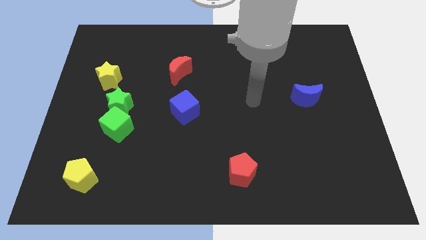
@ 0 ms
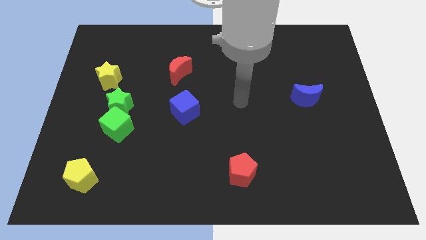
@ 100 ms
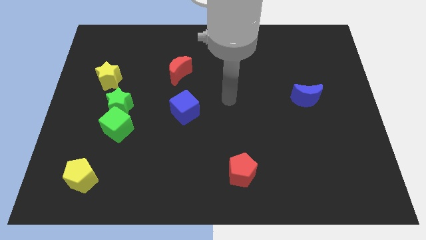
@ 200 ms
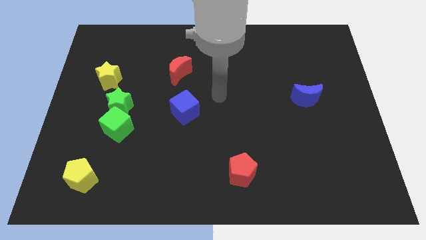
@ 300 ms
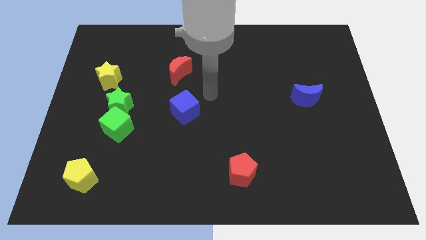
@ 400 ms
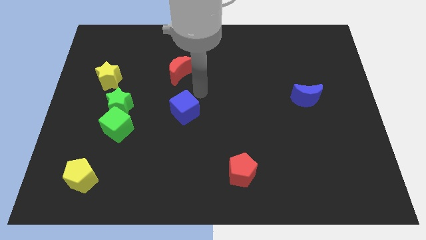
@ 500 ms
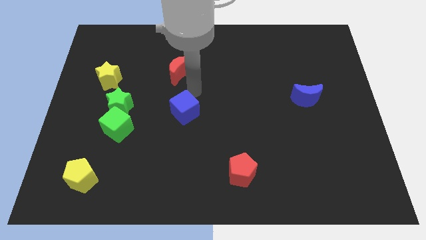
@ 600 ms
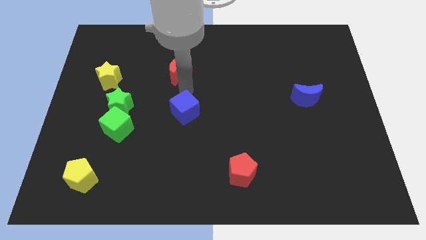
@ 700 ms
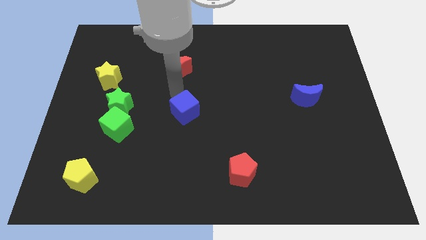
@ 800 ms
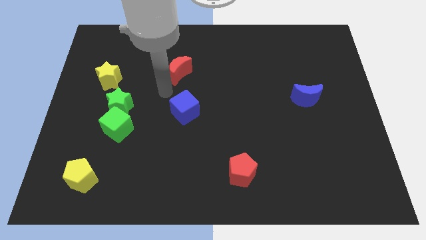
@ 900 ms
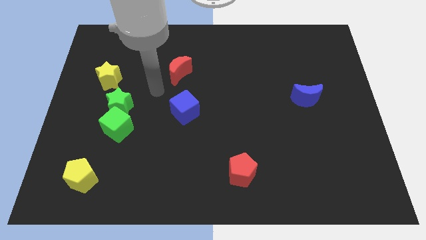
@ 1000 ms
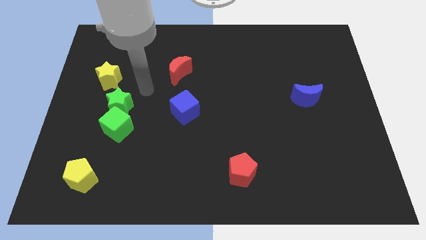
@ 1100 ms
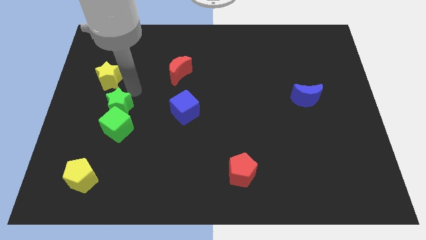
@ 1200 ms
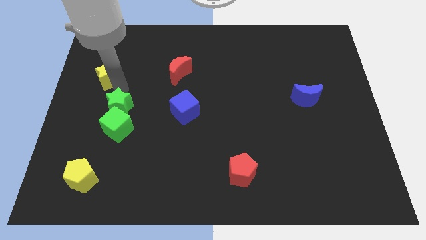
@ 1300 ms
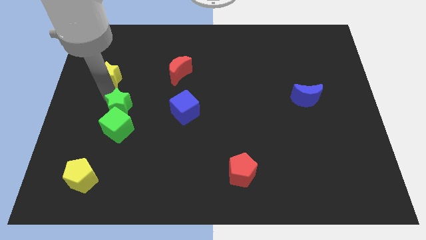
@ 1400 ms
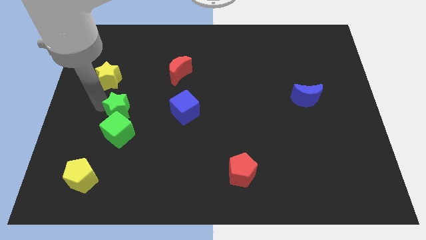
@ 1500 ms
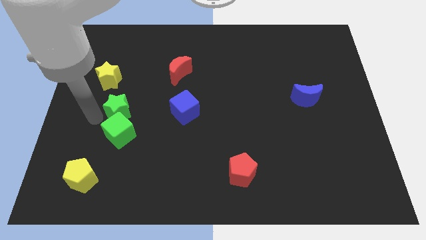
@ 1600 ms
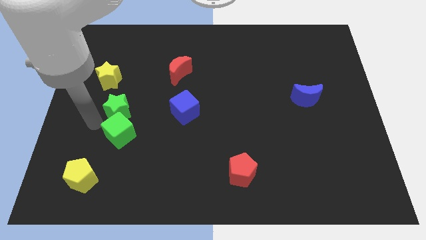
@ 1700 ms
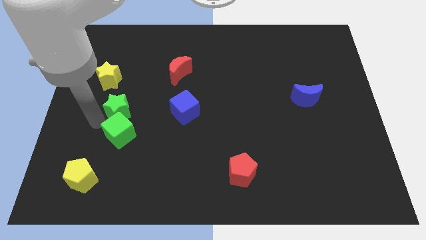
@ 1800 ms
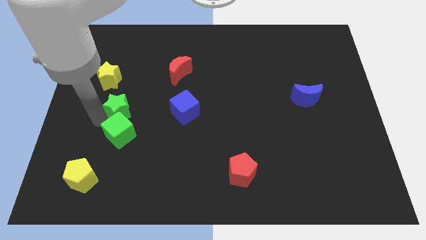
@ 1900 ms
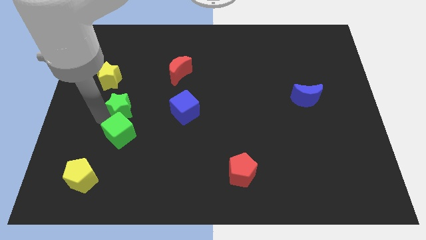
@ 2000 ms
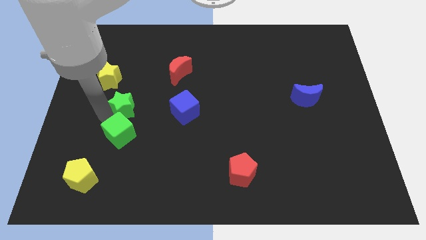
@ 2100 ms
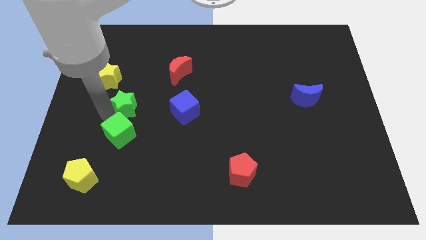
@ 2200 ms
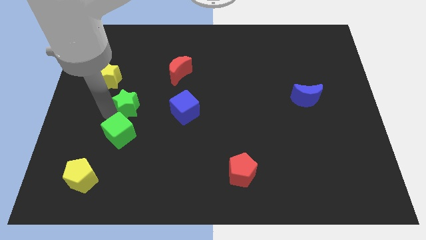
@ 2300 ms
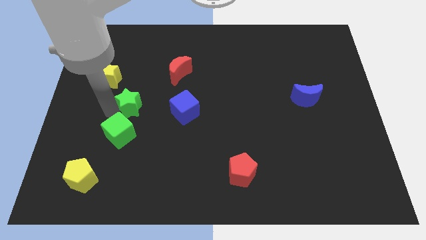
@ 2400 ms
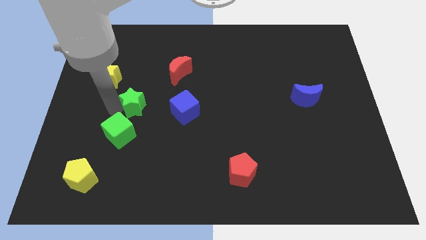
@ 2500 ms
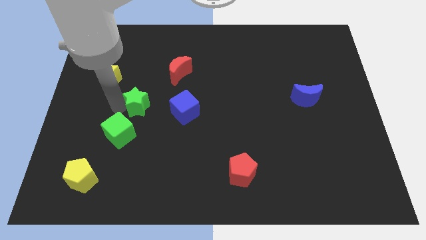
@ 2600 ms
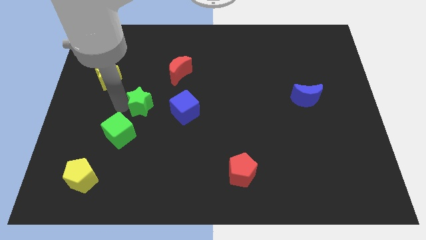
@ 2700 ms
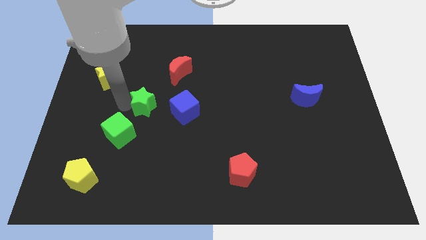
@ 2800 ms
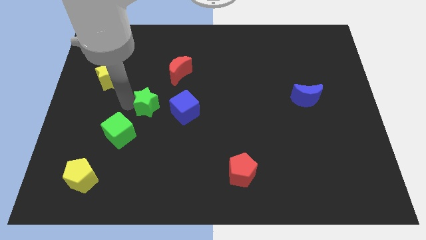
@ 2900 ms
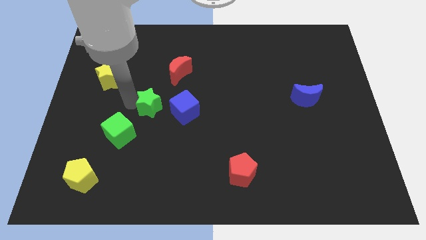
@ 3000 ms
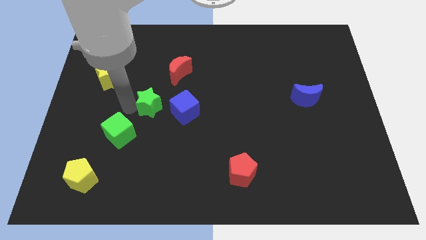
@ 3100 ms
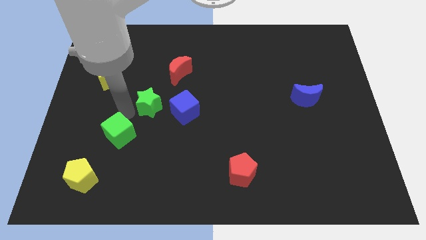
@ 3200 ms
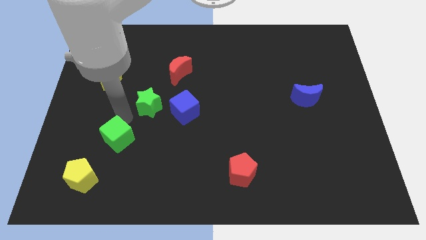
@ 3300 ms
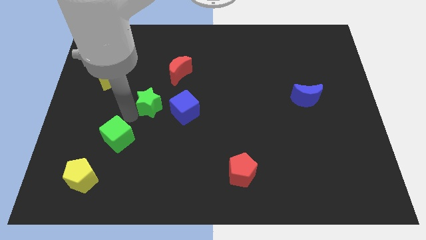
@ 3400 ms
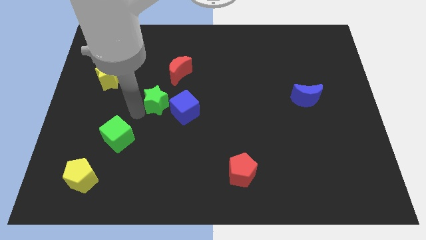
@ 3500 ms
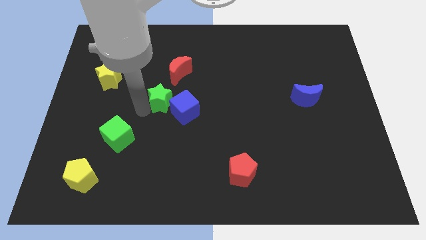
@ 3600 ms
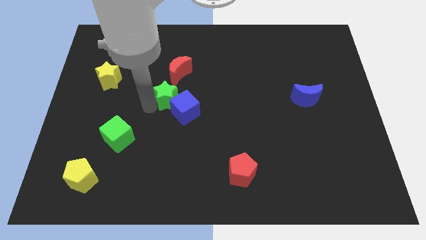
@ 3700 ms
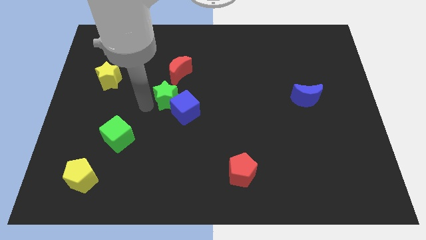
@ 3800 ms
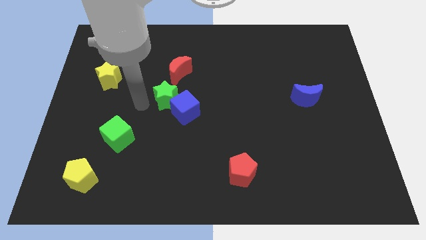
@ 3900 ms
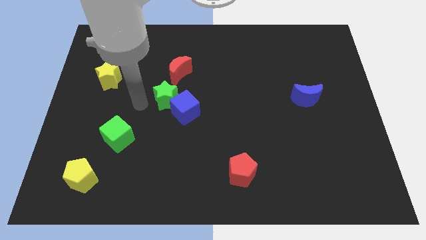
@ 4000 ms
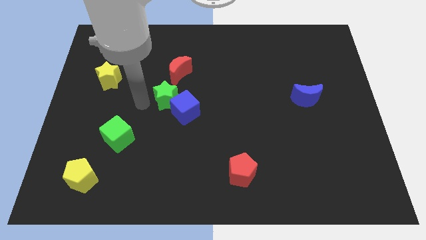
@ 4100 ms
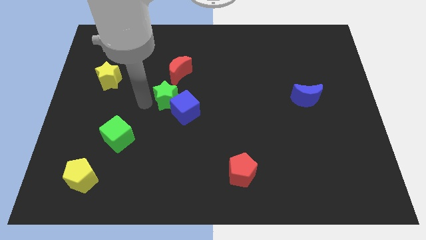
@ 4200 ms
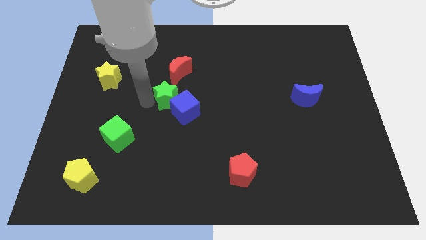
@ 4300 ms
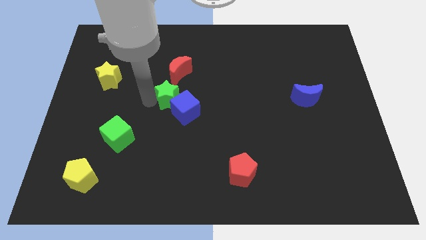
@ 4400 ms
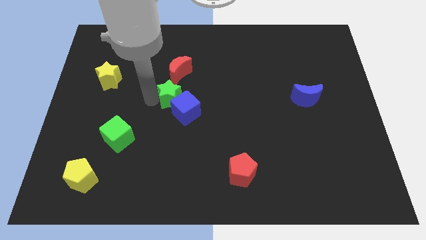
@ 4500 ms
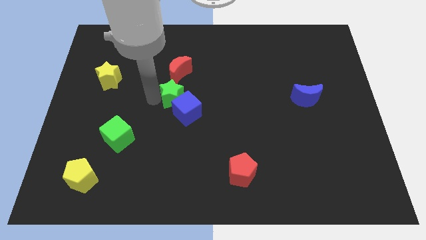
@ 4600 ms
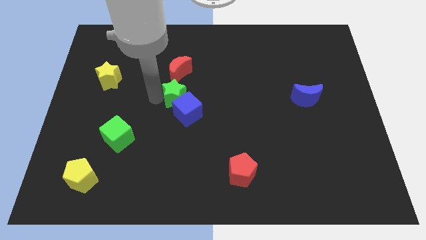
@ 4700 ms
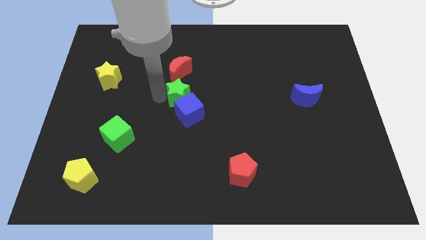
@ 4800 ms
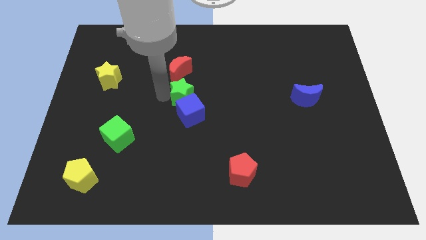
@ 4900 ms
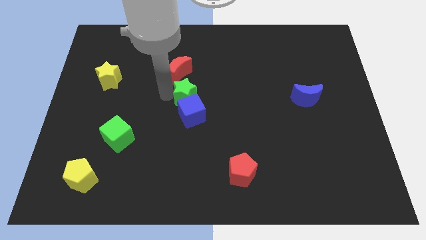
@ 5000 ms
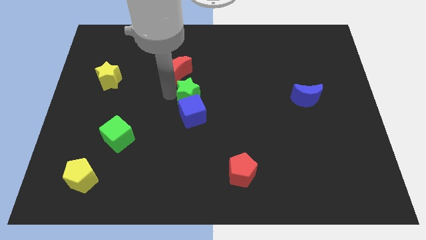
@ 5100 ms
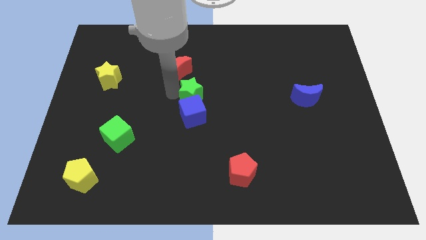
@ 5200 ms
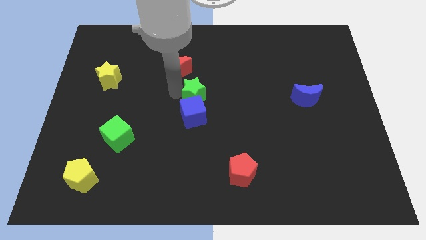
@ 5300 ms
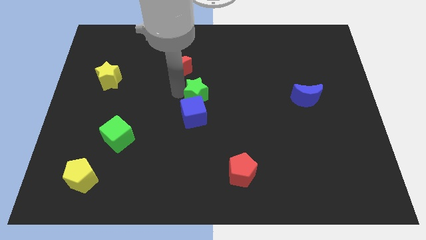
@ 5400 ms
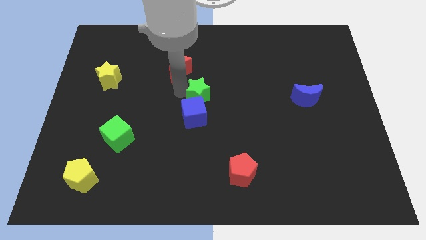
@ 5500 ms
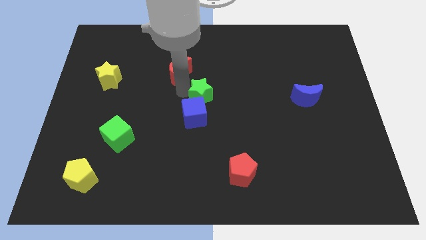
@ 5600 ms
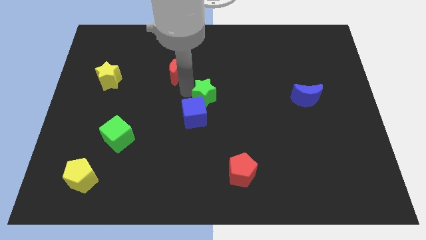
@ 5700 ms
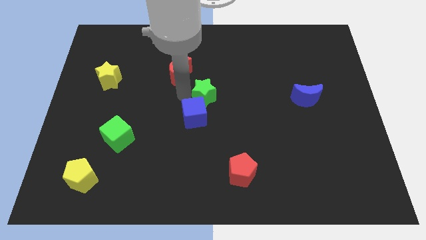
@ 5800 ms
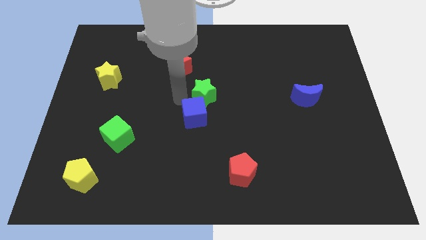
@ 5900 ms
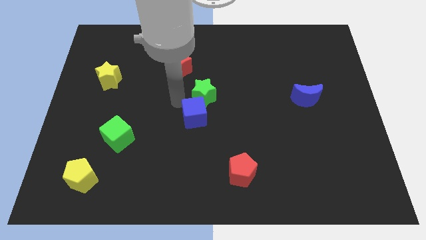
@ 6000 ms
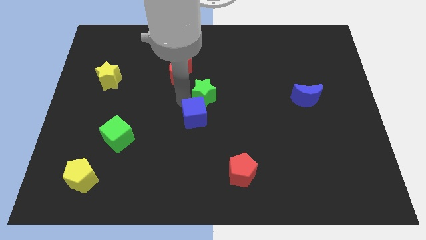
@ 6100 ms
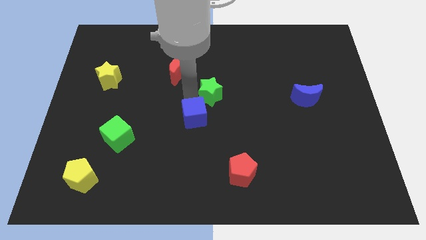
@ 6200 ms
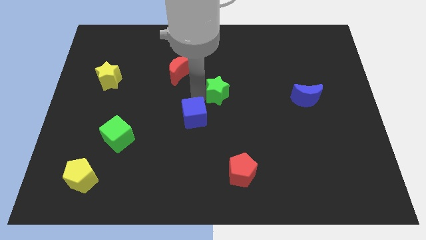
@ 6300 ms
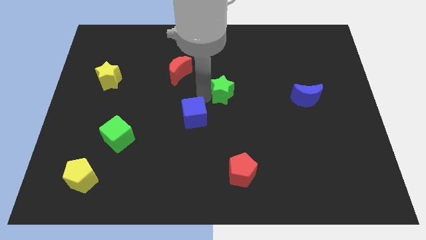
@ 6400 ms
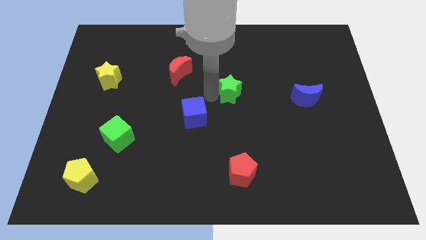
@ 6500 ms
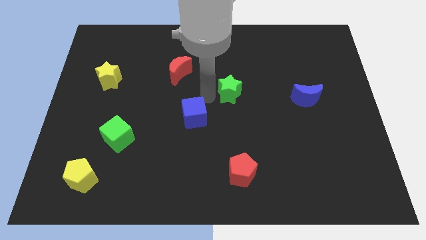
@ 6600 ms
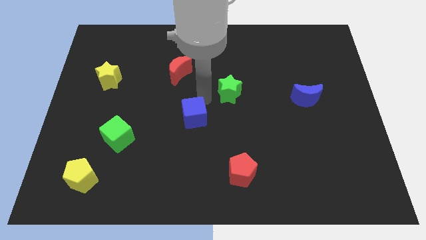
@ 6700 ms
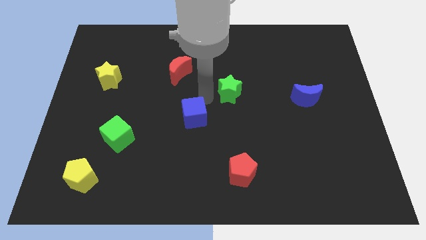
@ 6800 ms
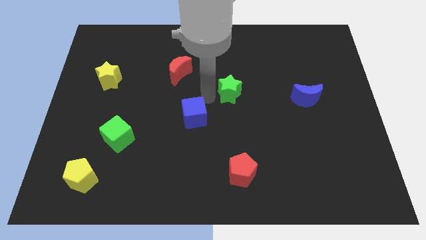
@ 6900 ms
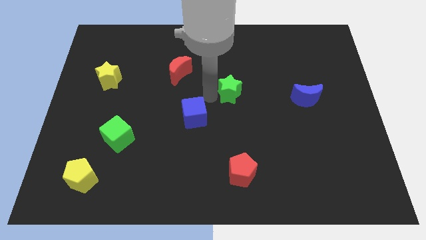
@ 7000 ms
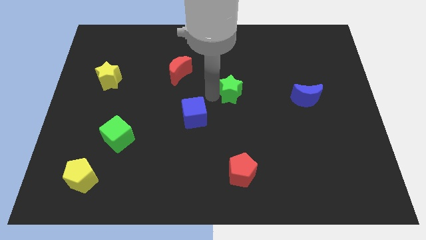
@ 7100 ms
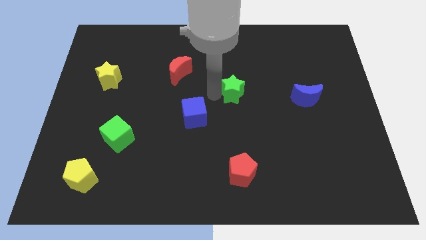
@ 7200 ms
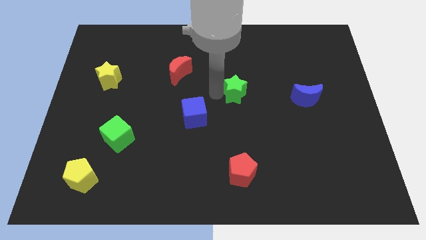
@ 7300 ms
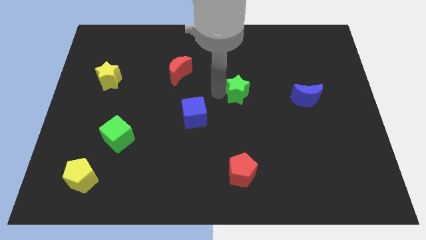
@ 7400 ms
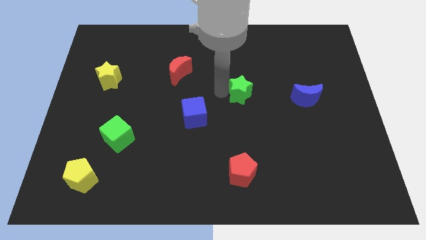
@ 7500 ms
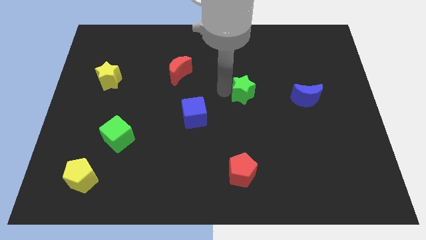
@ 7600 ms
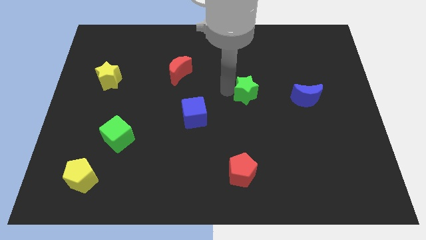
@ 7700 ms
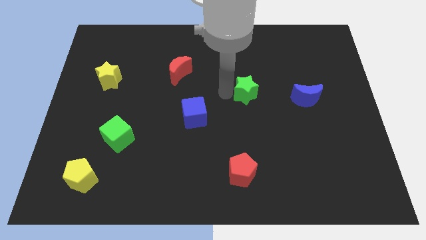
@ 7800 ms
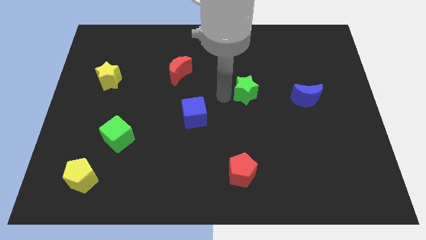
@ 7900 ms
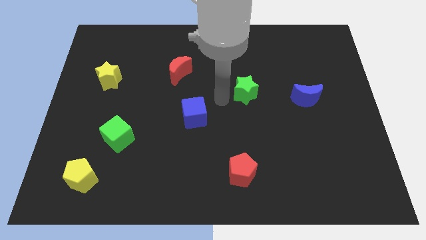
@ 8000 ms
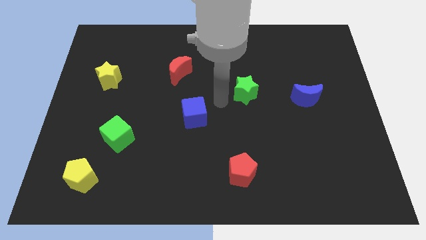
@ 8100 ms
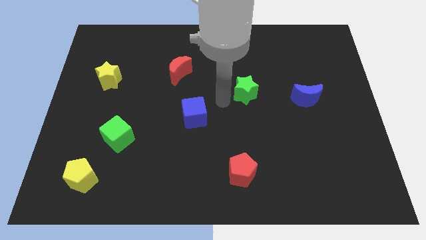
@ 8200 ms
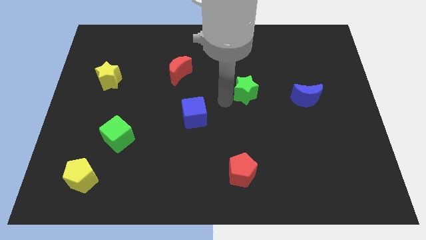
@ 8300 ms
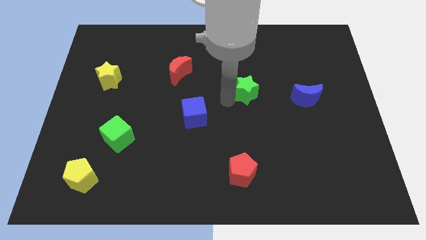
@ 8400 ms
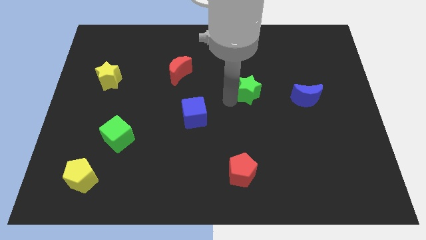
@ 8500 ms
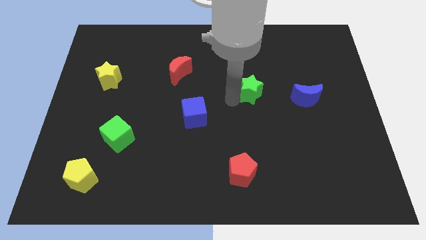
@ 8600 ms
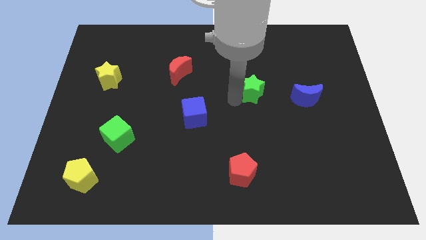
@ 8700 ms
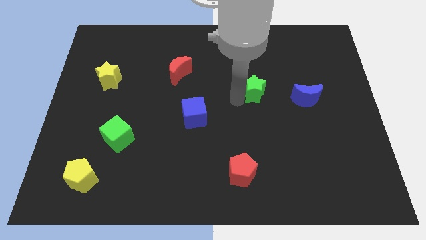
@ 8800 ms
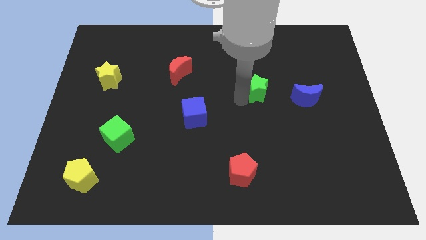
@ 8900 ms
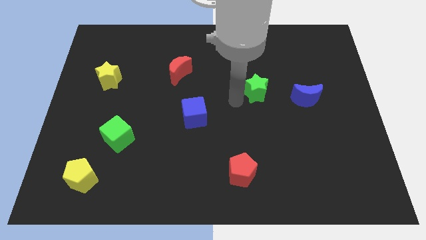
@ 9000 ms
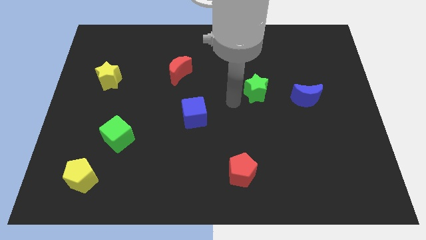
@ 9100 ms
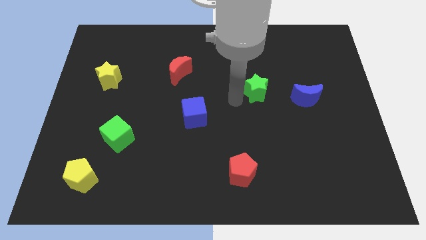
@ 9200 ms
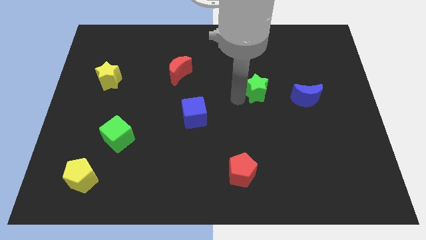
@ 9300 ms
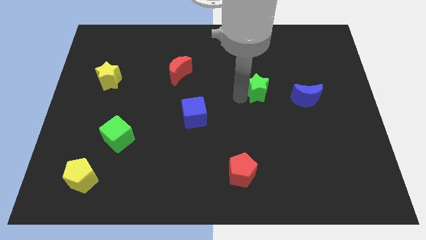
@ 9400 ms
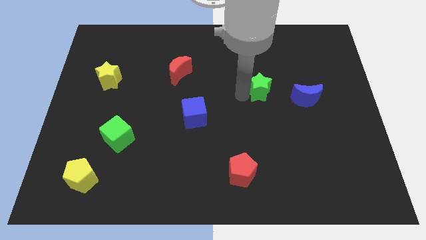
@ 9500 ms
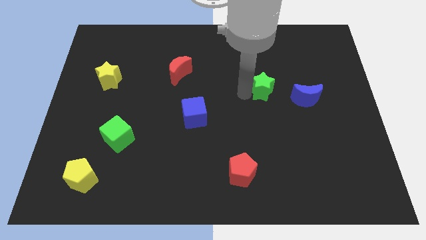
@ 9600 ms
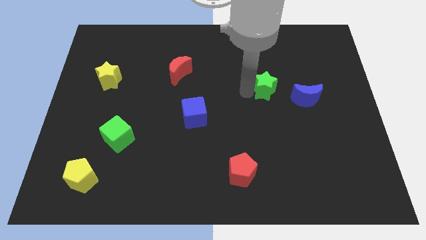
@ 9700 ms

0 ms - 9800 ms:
move the green star to the top left of the blue moon
